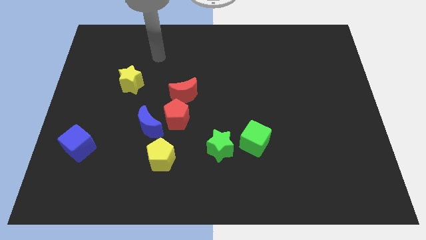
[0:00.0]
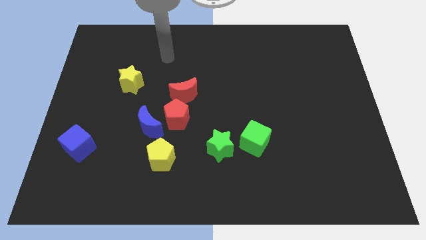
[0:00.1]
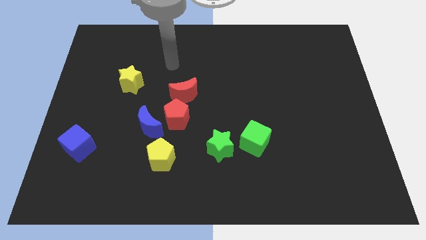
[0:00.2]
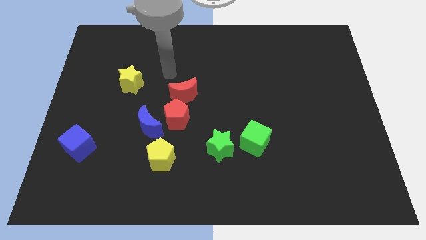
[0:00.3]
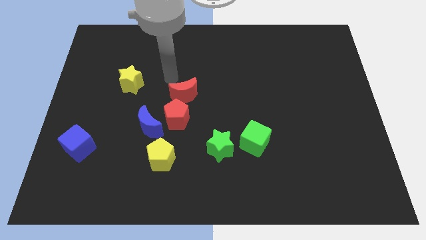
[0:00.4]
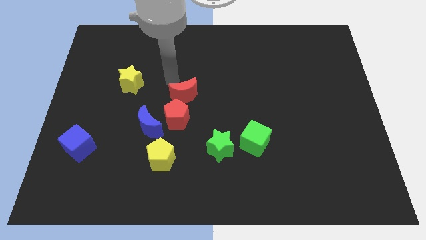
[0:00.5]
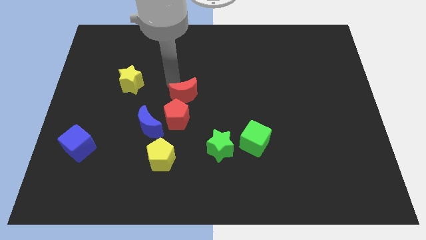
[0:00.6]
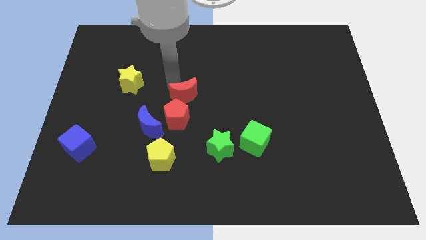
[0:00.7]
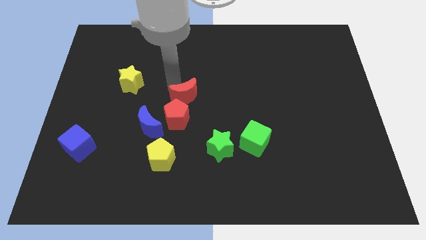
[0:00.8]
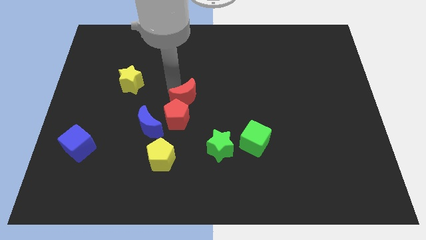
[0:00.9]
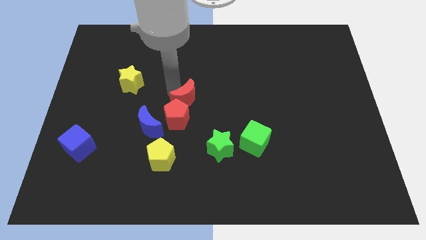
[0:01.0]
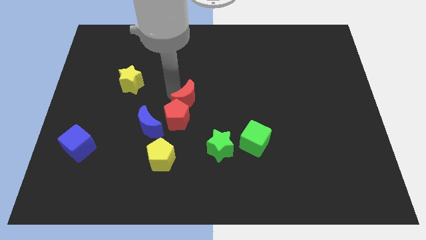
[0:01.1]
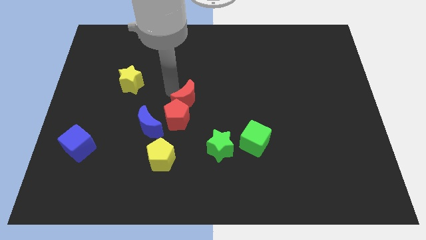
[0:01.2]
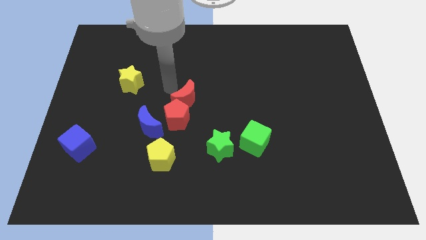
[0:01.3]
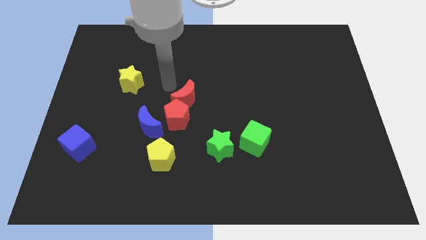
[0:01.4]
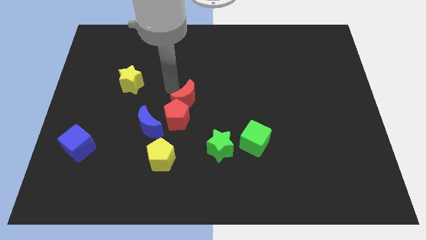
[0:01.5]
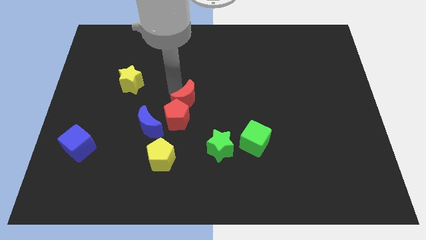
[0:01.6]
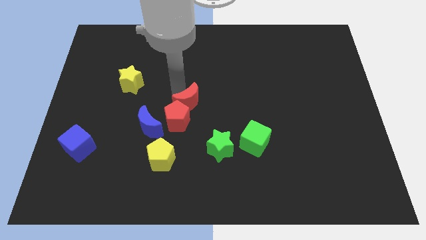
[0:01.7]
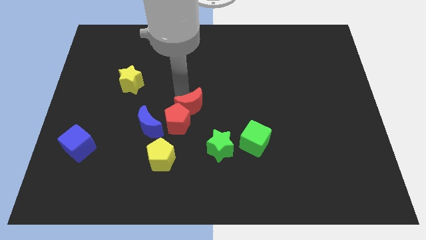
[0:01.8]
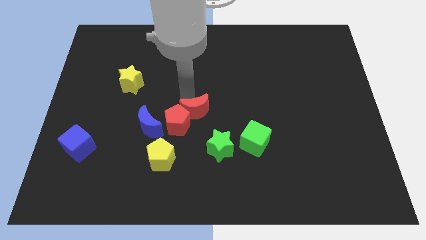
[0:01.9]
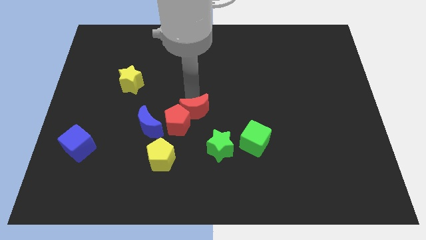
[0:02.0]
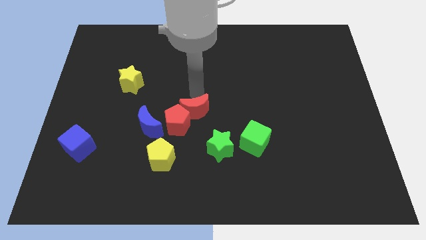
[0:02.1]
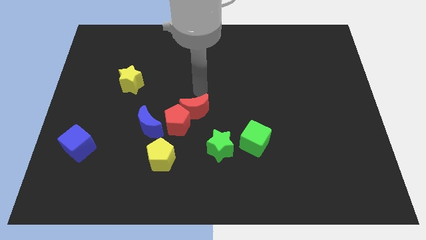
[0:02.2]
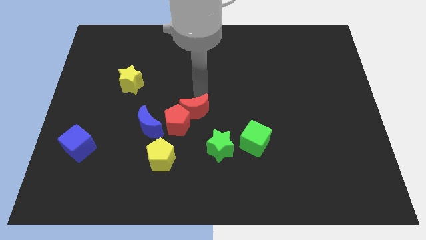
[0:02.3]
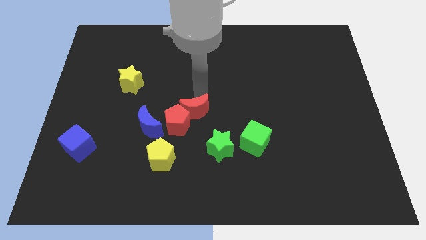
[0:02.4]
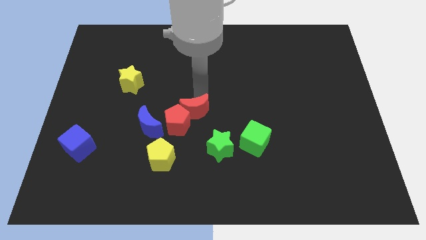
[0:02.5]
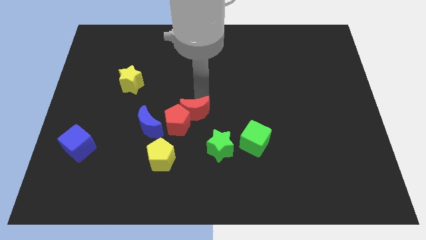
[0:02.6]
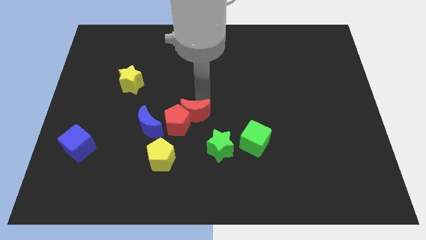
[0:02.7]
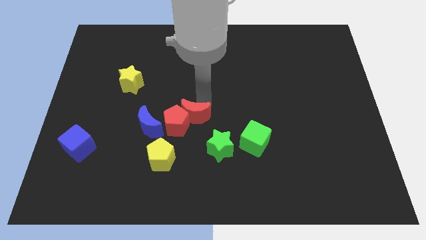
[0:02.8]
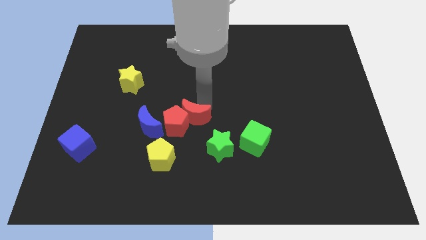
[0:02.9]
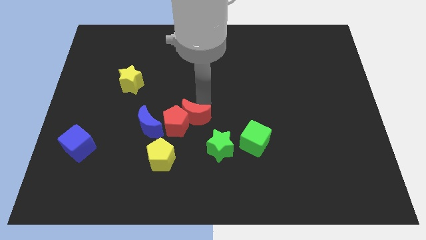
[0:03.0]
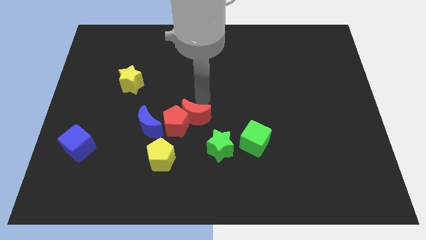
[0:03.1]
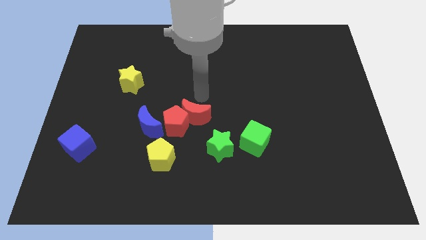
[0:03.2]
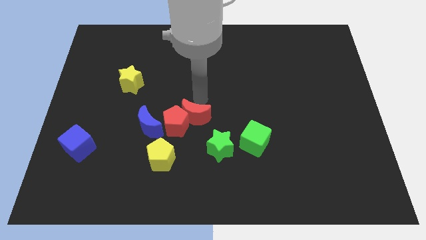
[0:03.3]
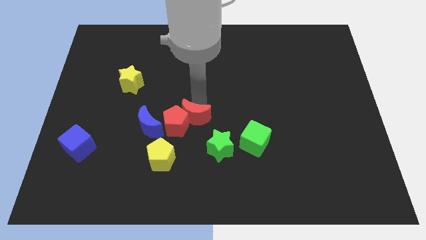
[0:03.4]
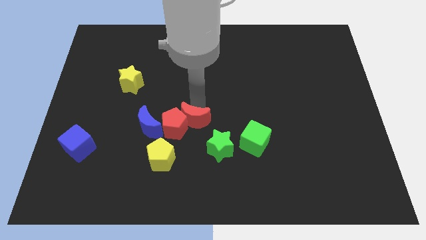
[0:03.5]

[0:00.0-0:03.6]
push the red moon slightly downwards

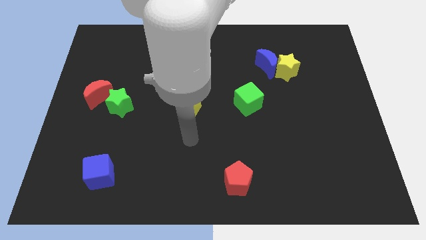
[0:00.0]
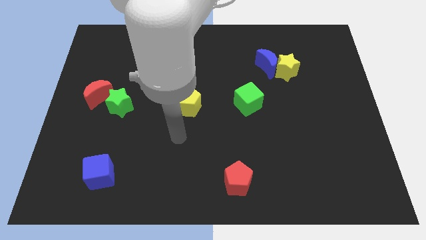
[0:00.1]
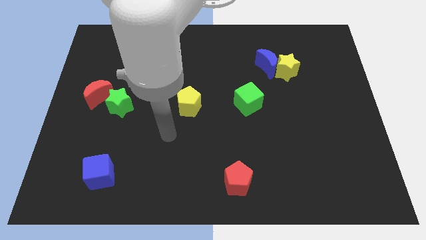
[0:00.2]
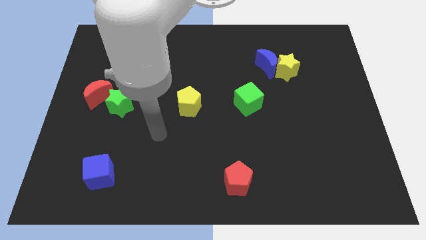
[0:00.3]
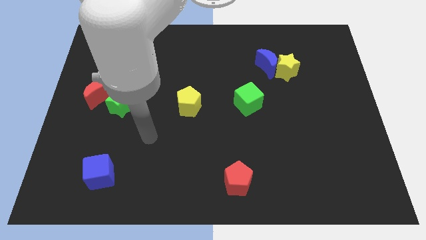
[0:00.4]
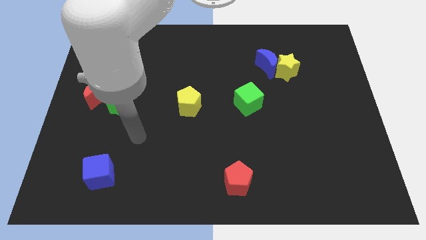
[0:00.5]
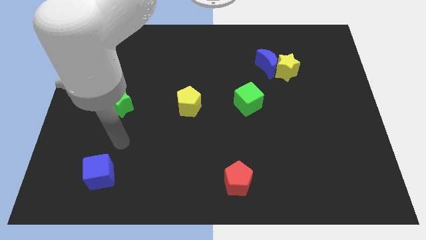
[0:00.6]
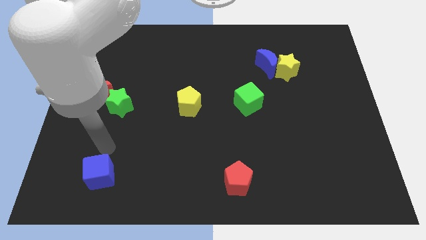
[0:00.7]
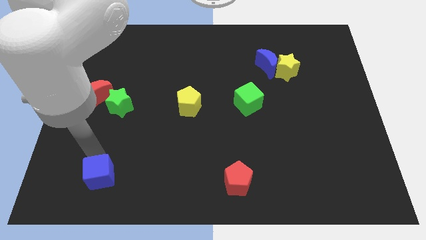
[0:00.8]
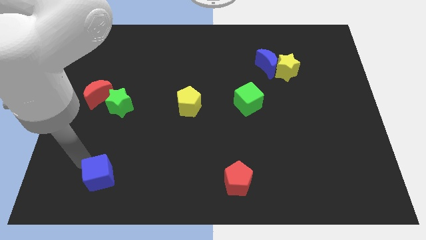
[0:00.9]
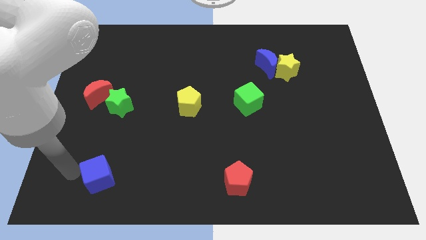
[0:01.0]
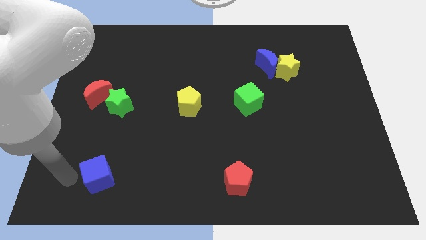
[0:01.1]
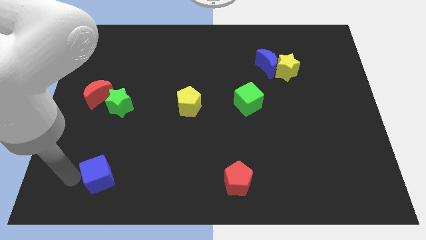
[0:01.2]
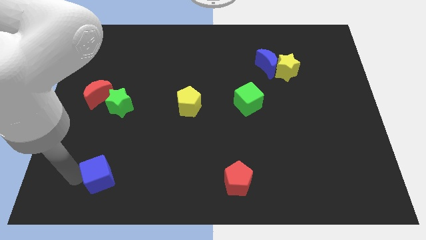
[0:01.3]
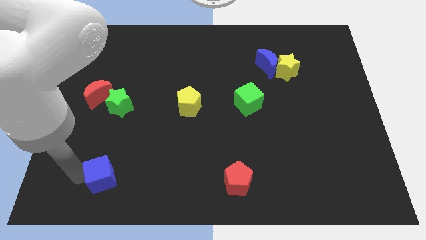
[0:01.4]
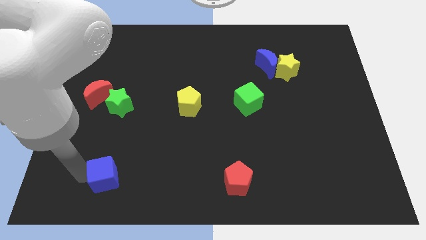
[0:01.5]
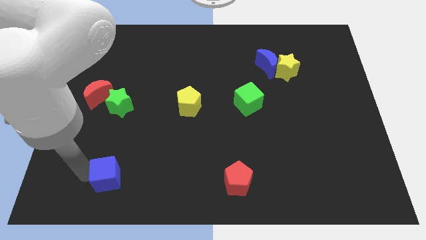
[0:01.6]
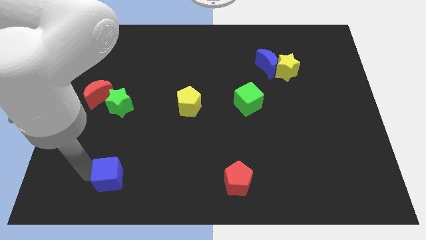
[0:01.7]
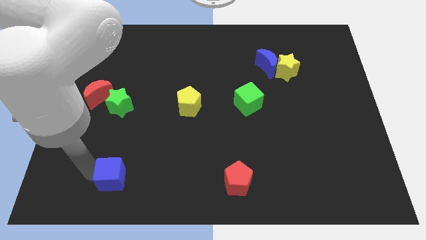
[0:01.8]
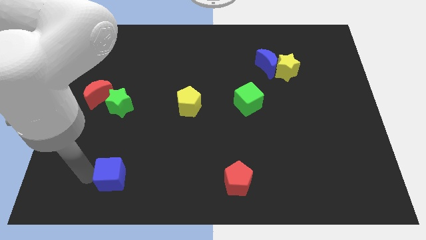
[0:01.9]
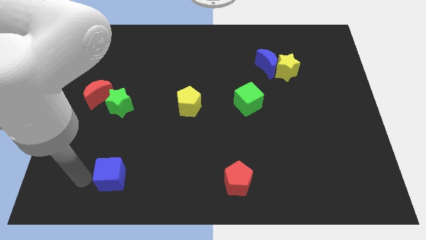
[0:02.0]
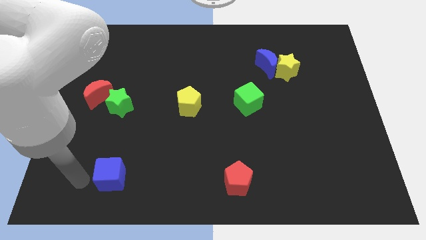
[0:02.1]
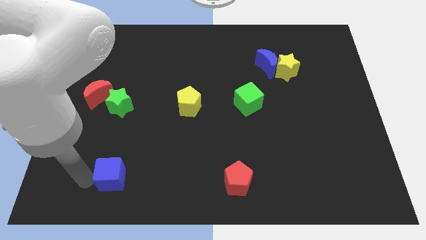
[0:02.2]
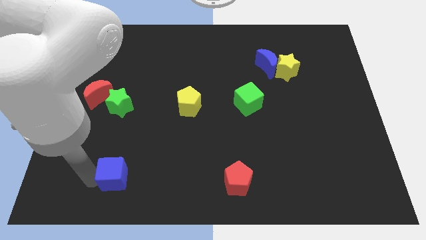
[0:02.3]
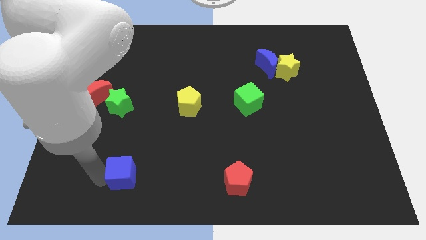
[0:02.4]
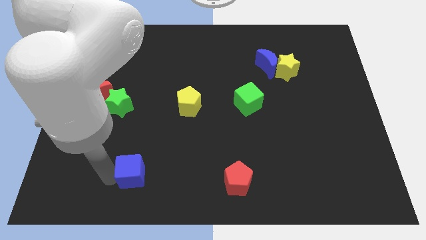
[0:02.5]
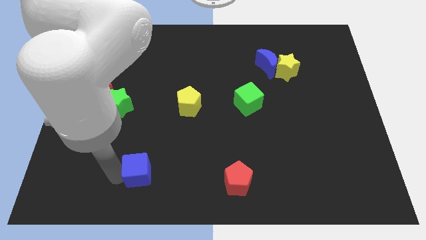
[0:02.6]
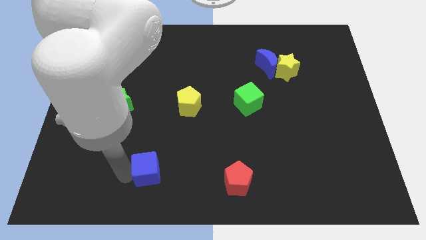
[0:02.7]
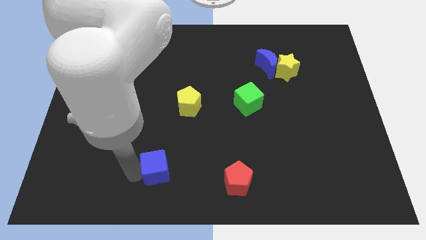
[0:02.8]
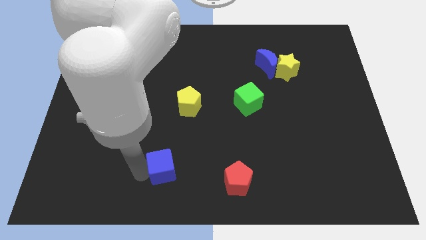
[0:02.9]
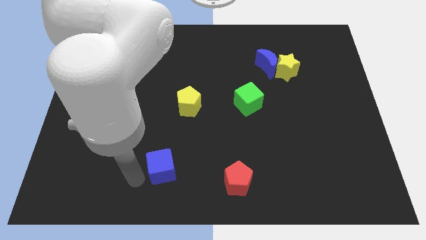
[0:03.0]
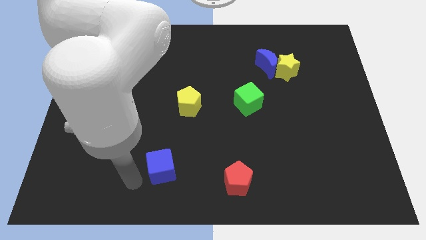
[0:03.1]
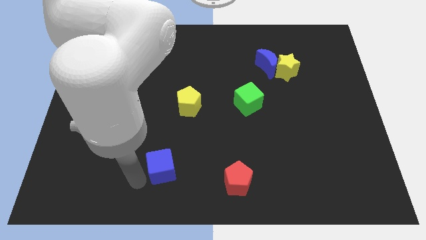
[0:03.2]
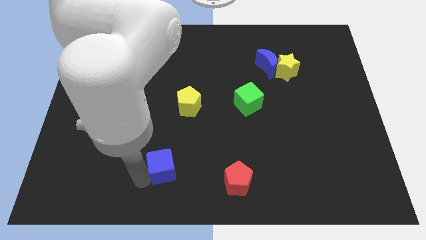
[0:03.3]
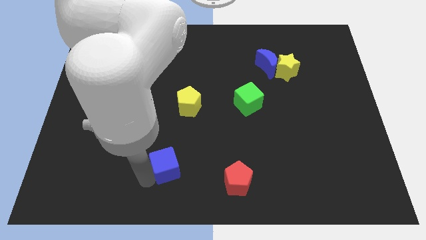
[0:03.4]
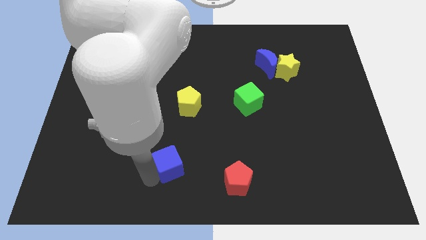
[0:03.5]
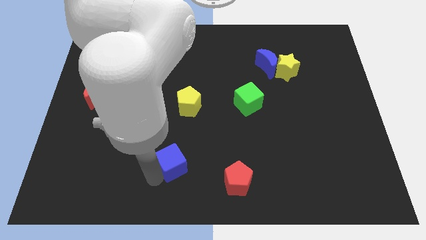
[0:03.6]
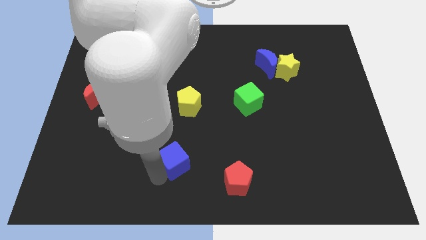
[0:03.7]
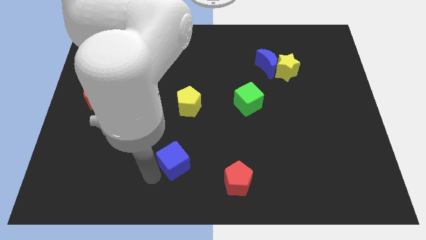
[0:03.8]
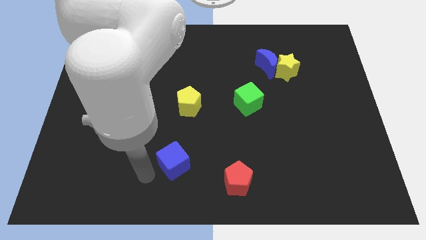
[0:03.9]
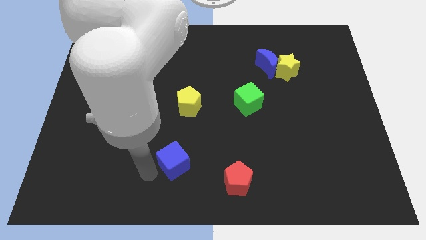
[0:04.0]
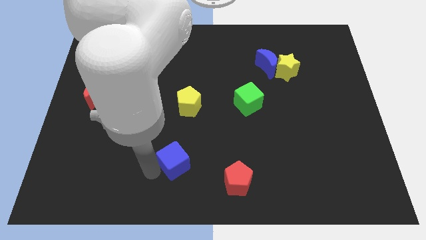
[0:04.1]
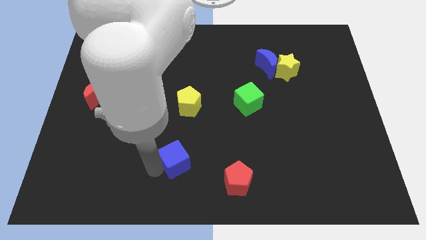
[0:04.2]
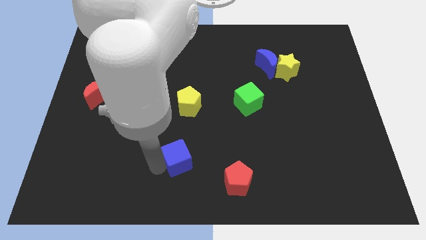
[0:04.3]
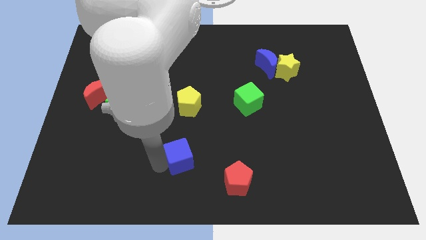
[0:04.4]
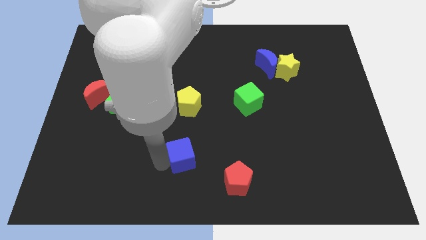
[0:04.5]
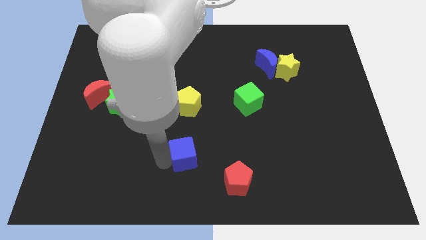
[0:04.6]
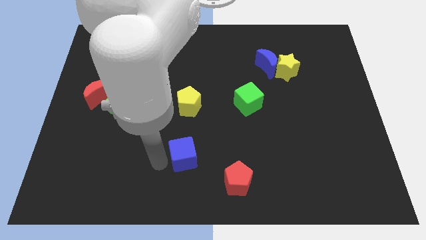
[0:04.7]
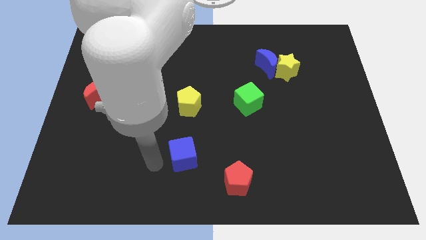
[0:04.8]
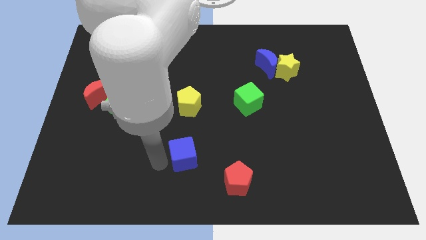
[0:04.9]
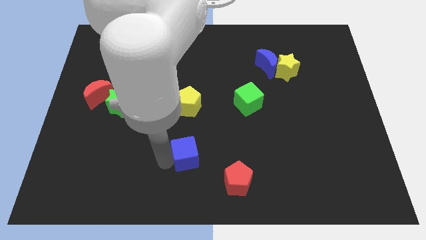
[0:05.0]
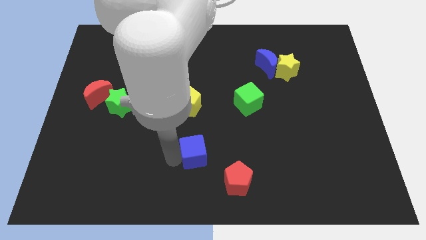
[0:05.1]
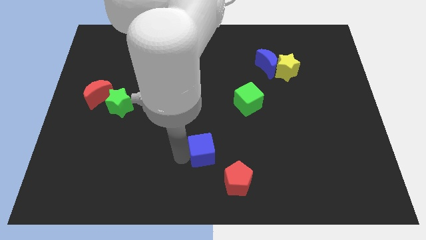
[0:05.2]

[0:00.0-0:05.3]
move the blue cube to the right
